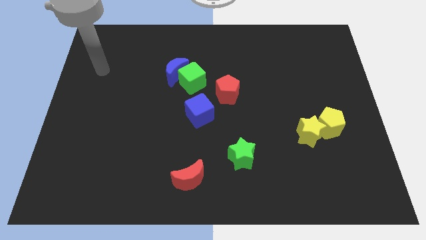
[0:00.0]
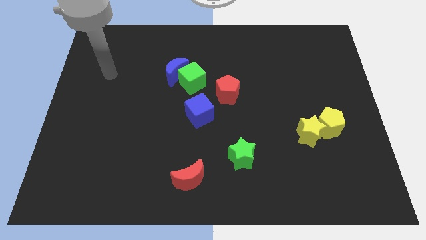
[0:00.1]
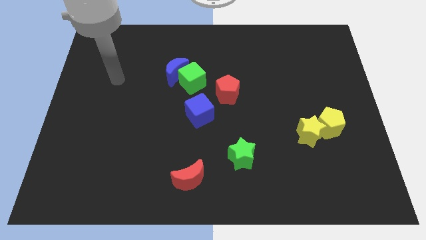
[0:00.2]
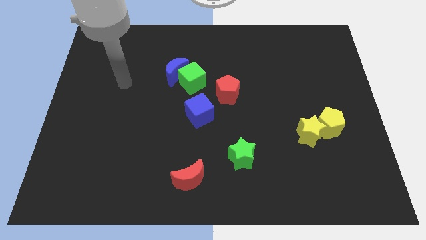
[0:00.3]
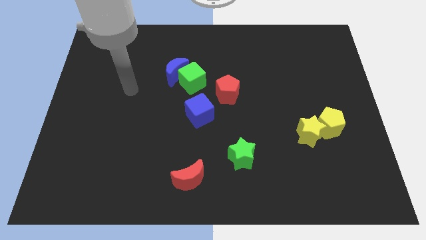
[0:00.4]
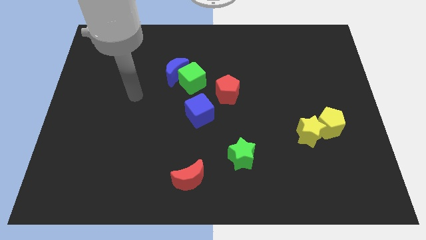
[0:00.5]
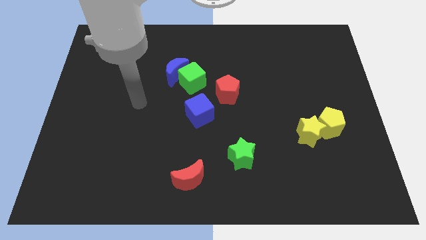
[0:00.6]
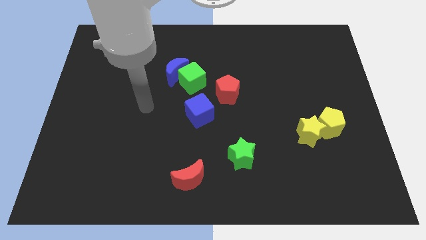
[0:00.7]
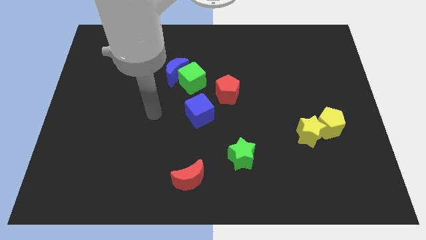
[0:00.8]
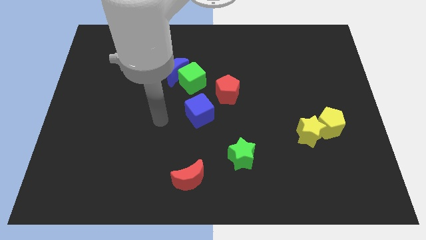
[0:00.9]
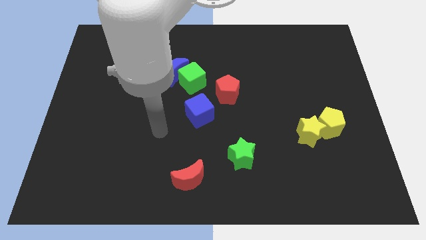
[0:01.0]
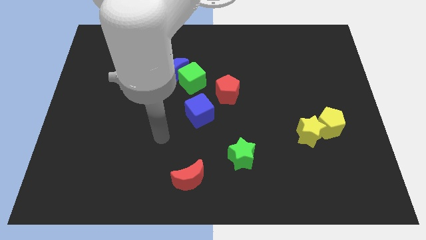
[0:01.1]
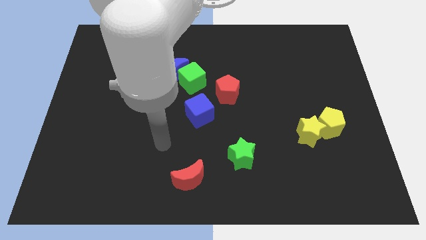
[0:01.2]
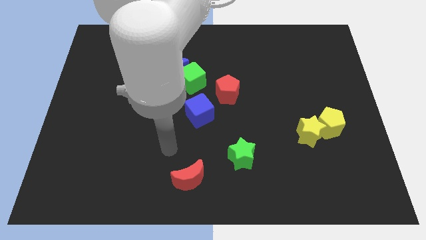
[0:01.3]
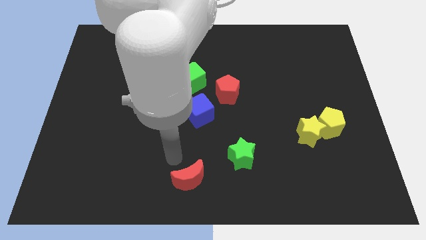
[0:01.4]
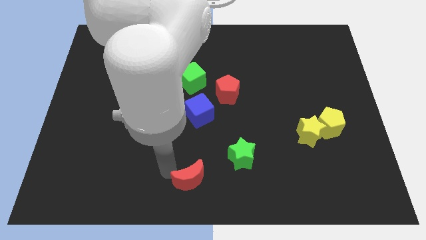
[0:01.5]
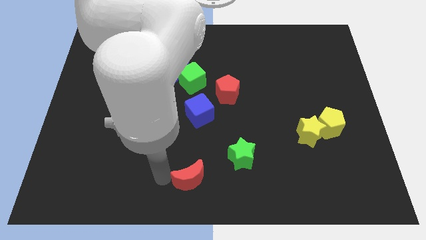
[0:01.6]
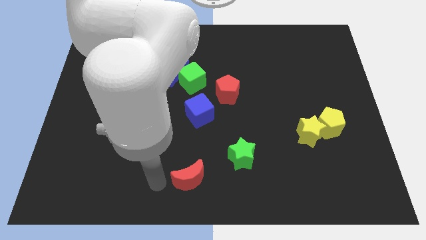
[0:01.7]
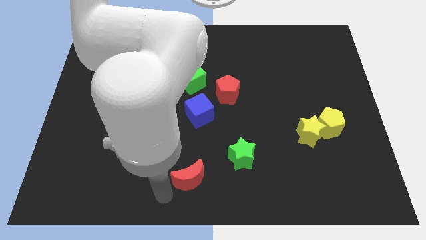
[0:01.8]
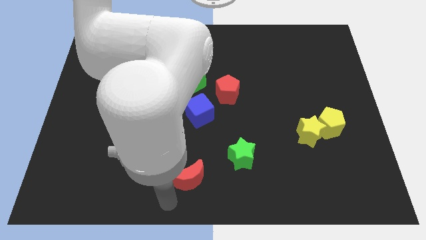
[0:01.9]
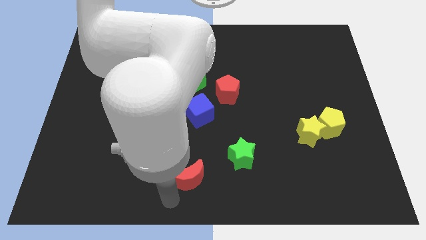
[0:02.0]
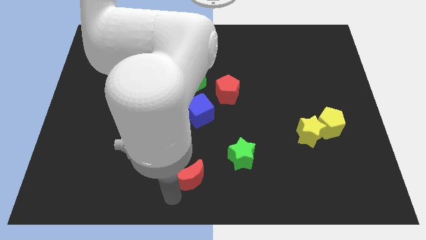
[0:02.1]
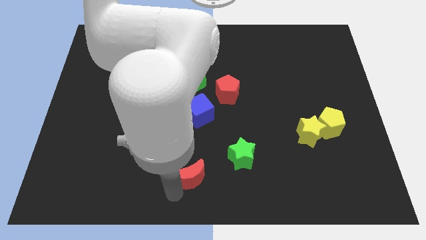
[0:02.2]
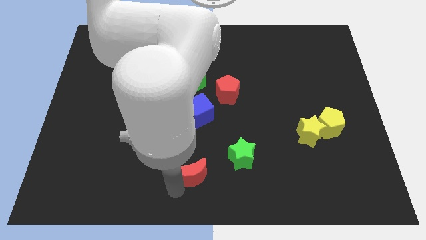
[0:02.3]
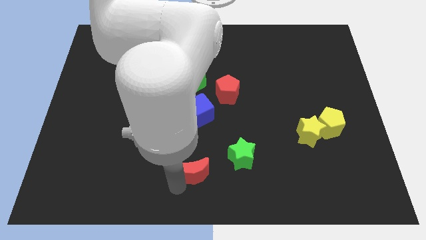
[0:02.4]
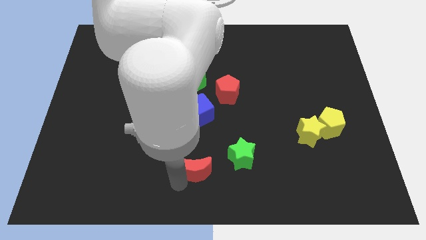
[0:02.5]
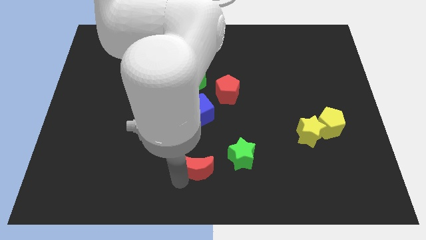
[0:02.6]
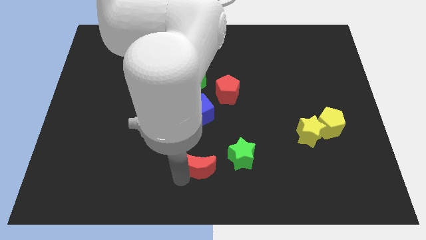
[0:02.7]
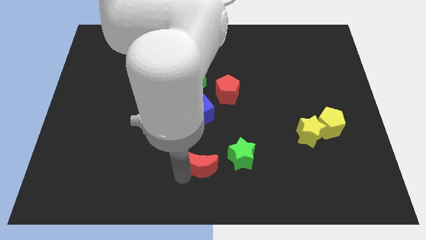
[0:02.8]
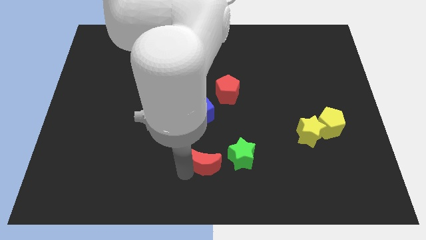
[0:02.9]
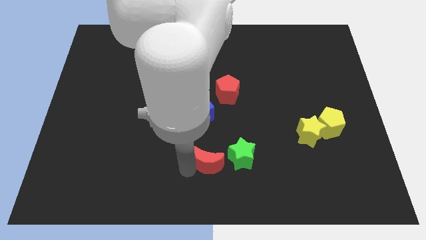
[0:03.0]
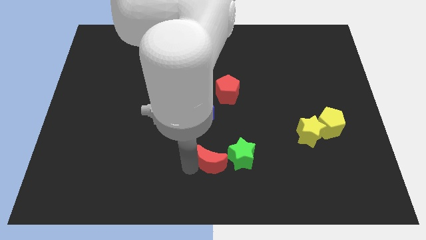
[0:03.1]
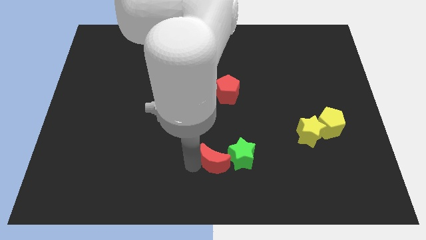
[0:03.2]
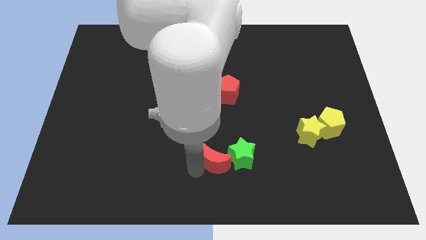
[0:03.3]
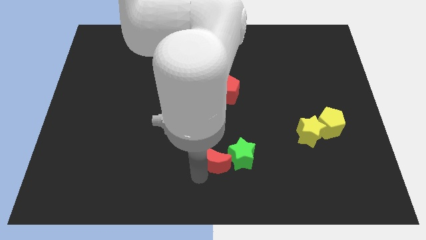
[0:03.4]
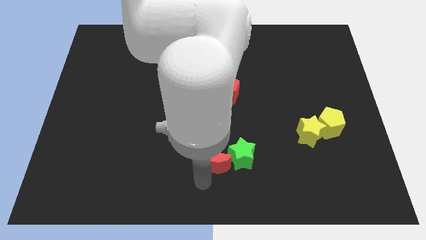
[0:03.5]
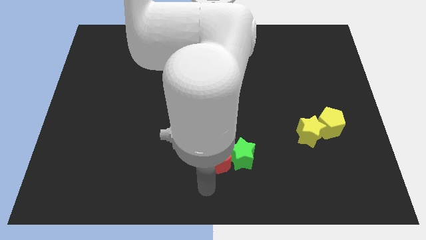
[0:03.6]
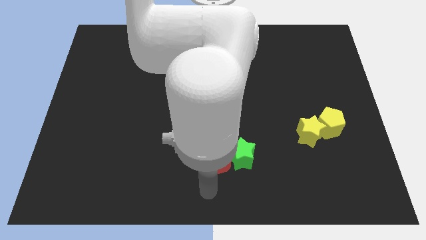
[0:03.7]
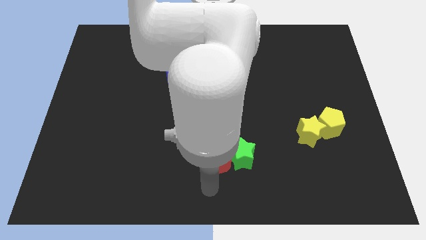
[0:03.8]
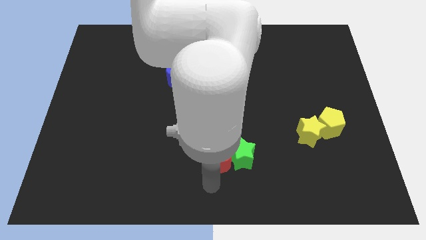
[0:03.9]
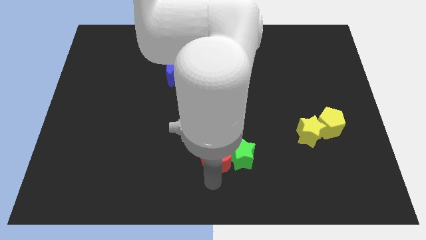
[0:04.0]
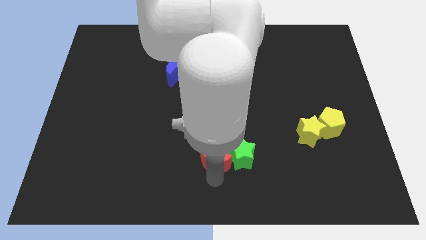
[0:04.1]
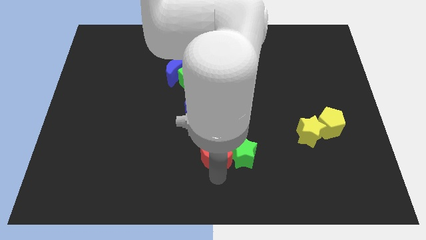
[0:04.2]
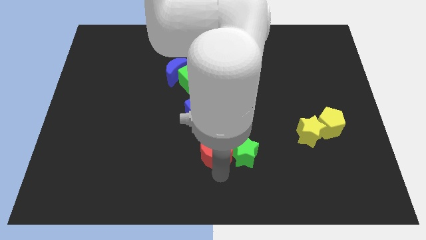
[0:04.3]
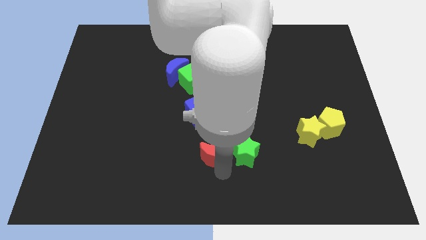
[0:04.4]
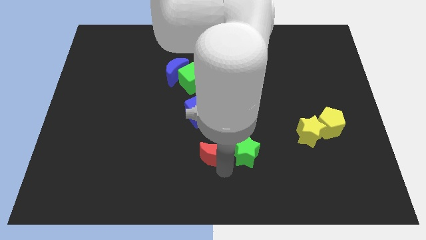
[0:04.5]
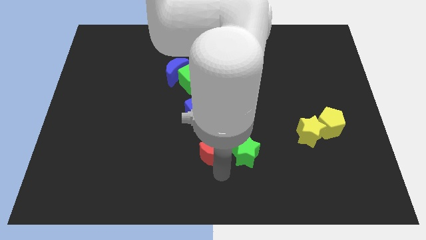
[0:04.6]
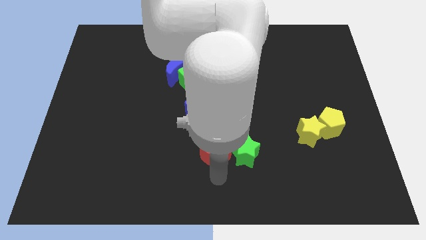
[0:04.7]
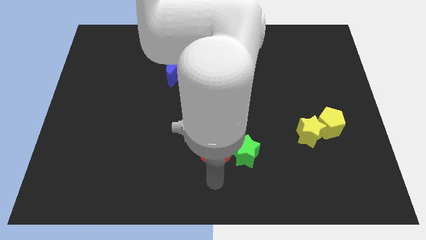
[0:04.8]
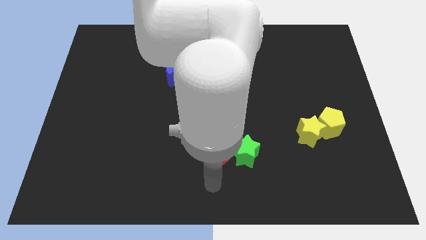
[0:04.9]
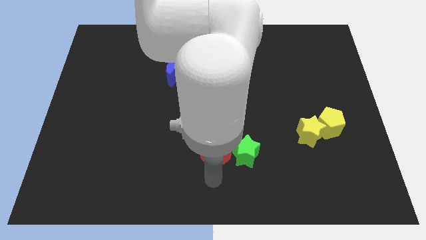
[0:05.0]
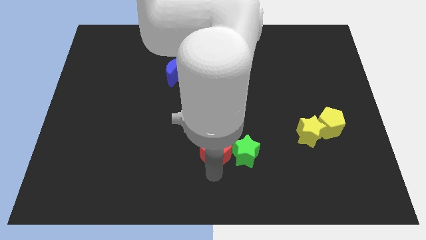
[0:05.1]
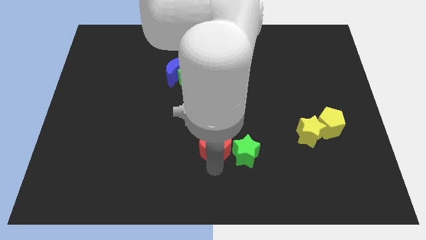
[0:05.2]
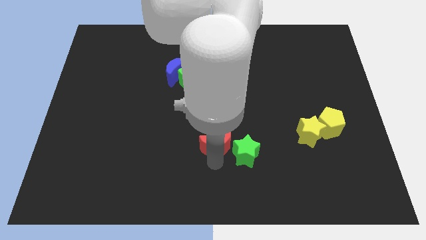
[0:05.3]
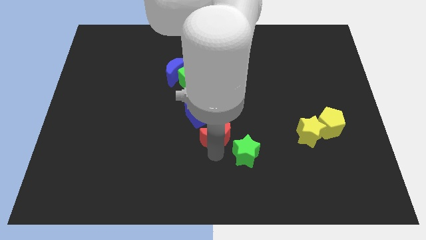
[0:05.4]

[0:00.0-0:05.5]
move the red moon to the center of the board

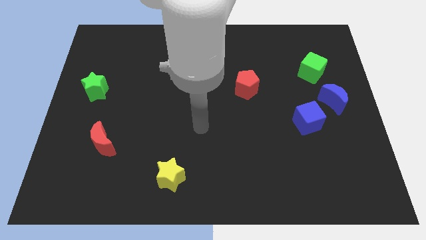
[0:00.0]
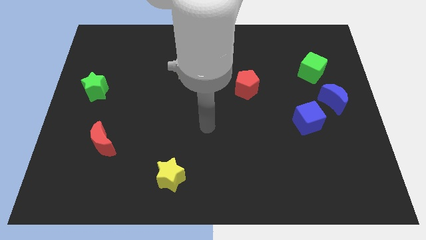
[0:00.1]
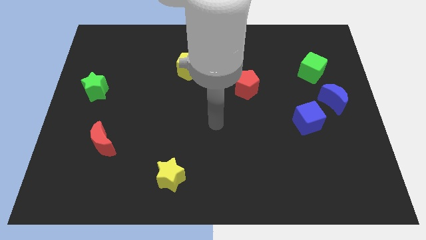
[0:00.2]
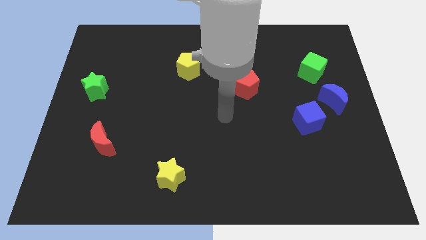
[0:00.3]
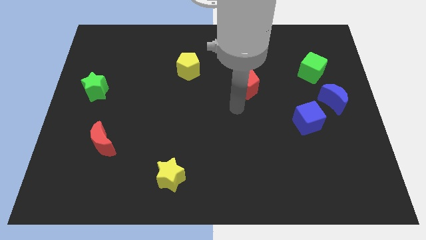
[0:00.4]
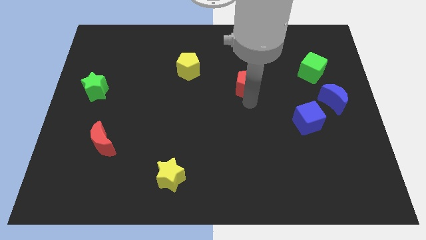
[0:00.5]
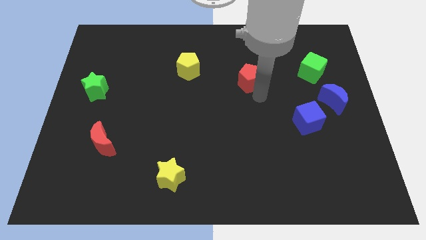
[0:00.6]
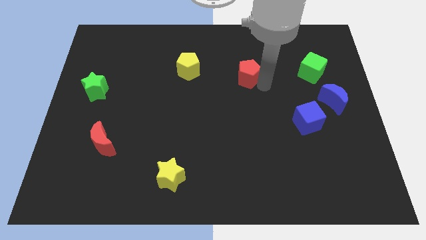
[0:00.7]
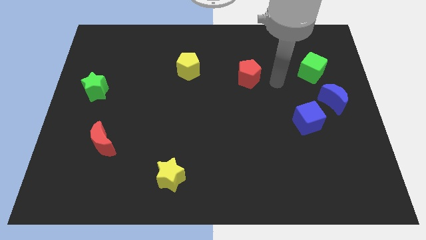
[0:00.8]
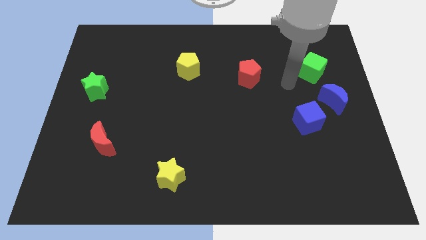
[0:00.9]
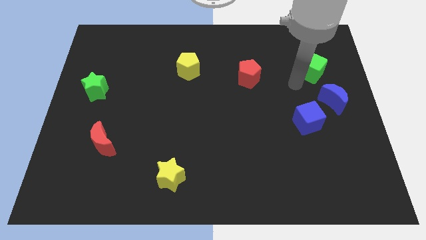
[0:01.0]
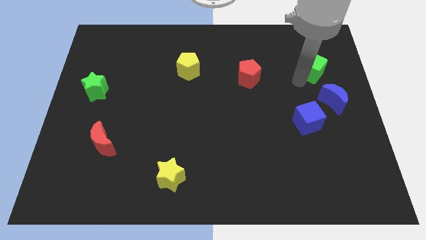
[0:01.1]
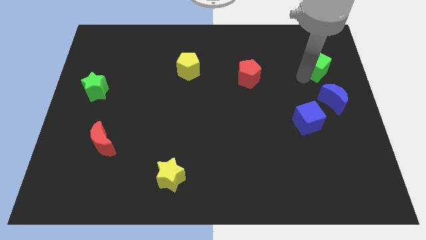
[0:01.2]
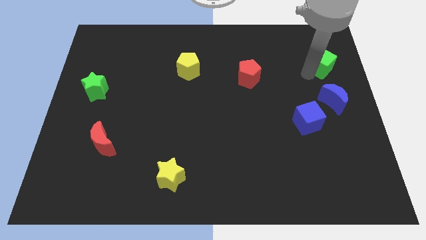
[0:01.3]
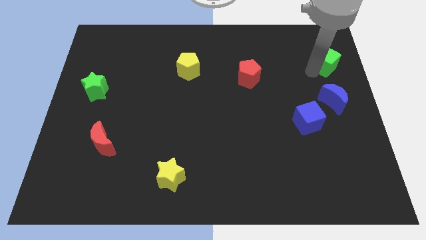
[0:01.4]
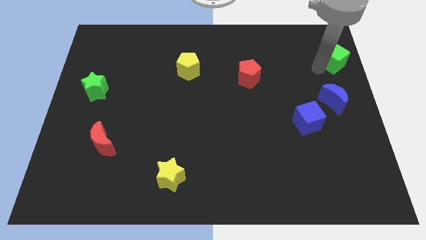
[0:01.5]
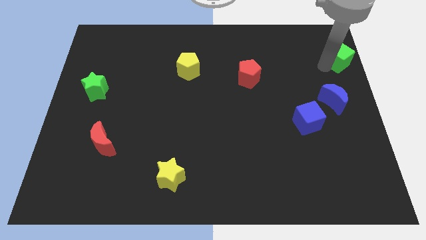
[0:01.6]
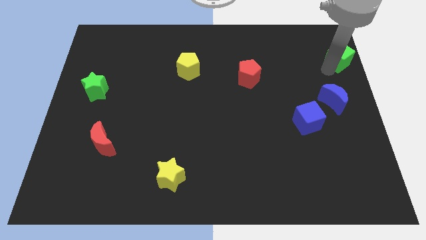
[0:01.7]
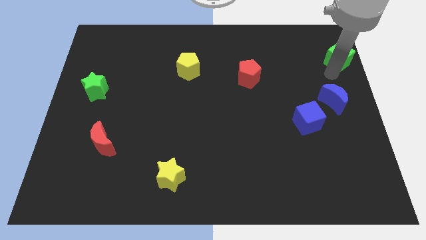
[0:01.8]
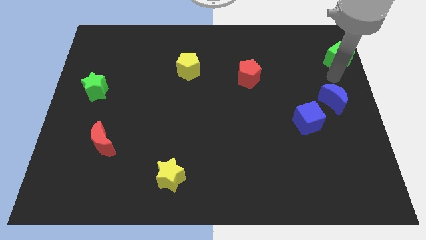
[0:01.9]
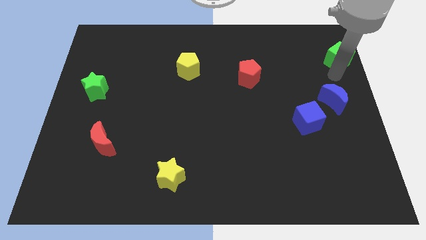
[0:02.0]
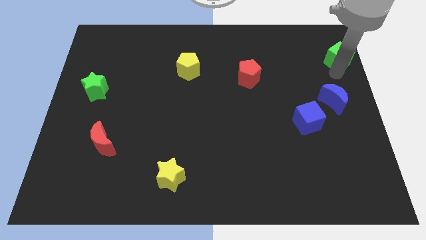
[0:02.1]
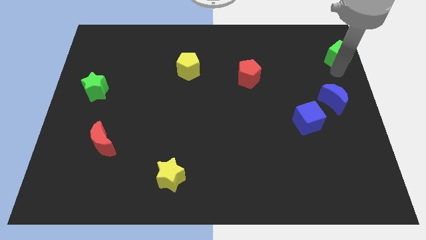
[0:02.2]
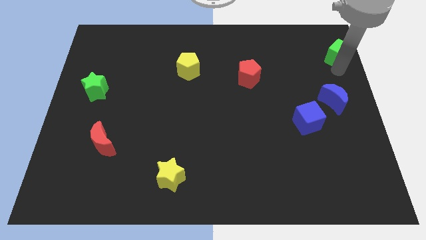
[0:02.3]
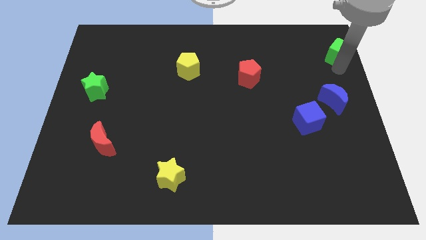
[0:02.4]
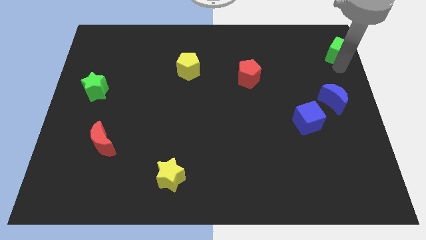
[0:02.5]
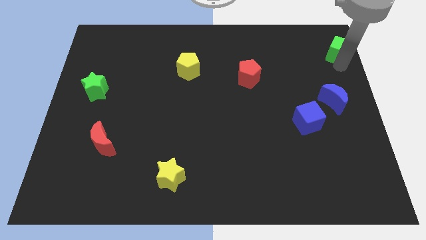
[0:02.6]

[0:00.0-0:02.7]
put the green cube to the top right corner
